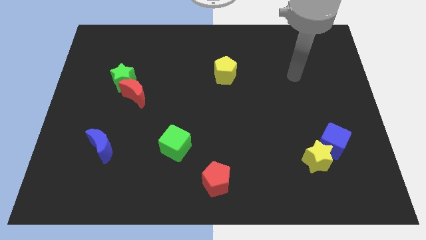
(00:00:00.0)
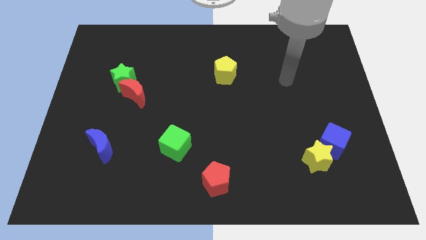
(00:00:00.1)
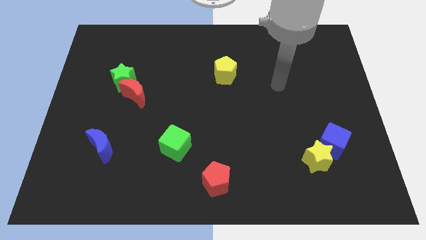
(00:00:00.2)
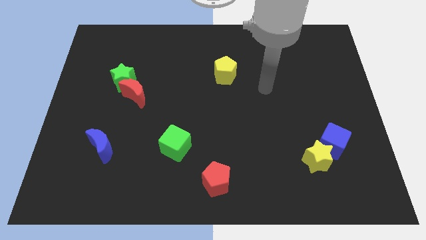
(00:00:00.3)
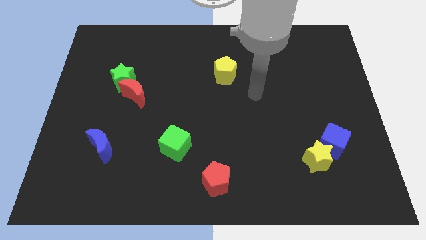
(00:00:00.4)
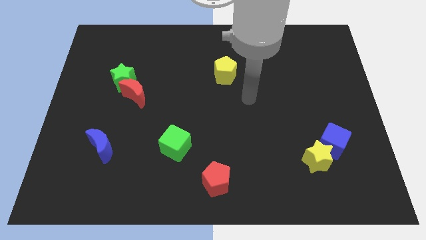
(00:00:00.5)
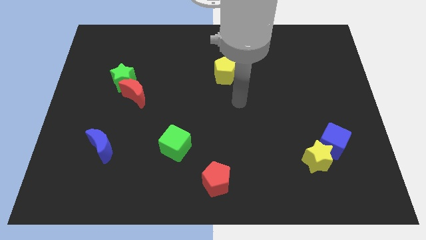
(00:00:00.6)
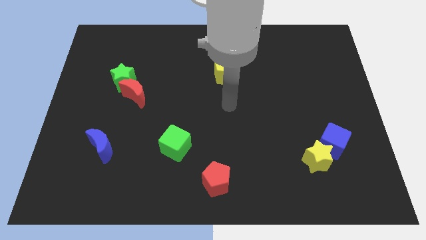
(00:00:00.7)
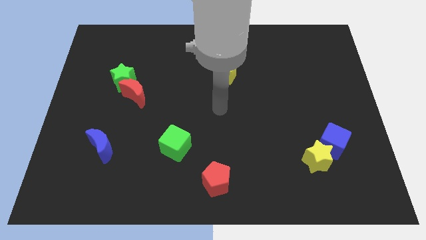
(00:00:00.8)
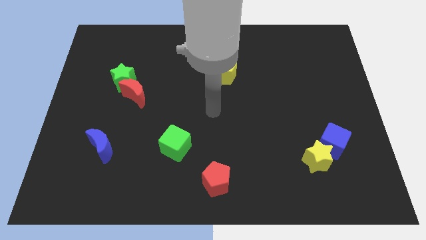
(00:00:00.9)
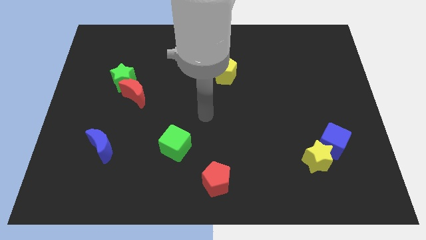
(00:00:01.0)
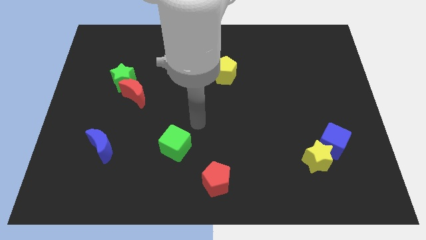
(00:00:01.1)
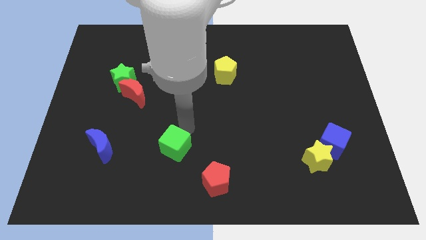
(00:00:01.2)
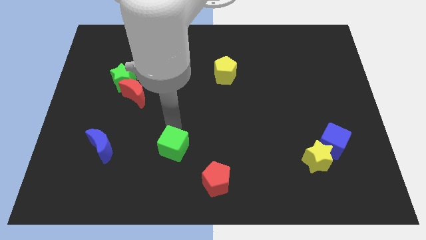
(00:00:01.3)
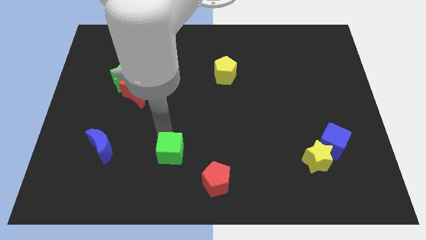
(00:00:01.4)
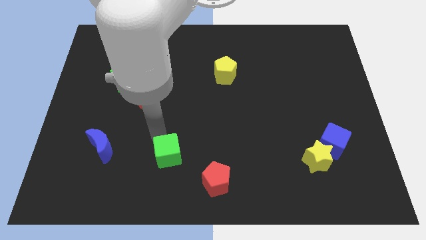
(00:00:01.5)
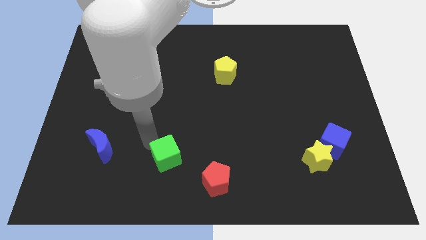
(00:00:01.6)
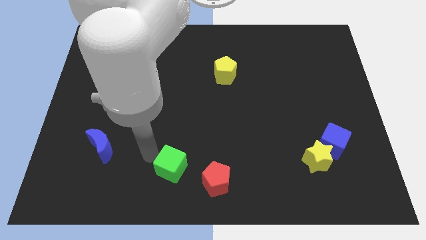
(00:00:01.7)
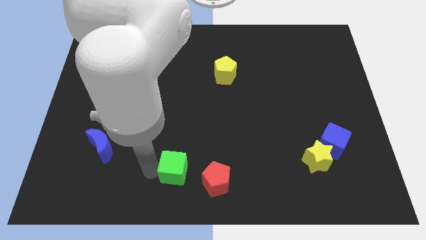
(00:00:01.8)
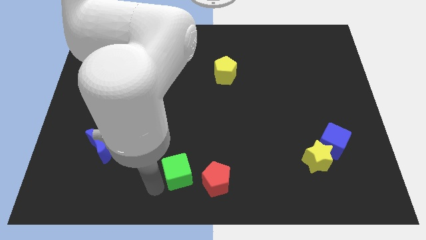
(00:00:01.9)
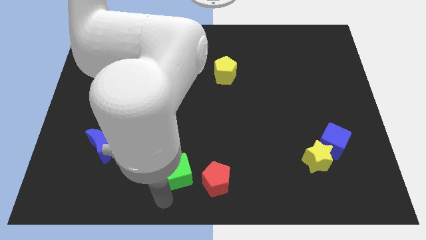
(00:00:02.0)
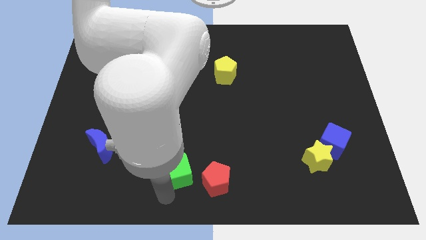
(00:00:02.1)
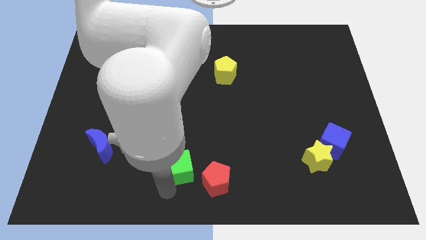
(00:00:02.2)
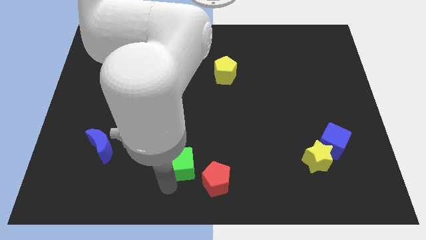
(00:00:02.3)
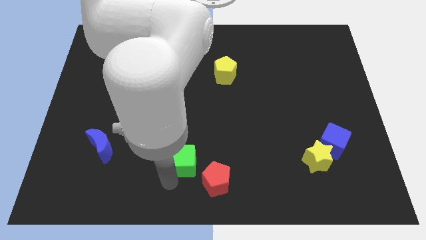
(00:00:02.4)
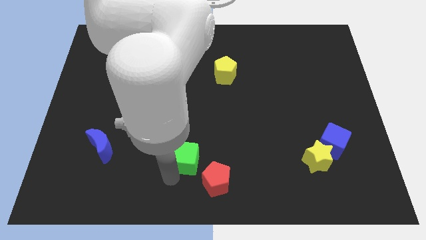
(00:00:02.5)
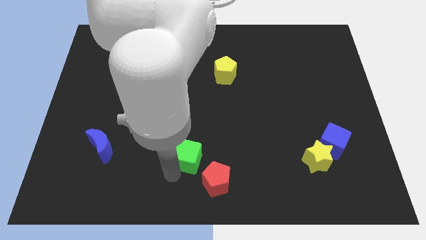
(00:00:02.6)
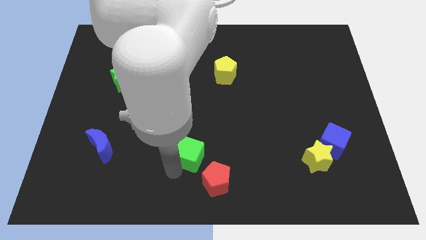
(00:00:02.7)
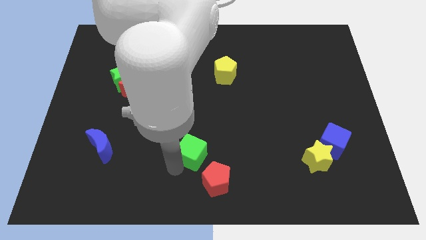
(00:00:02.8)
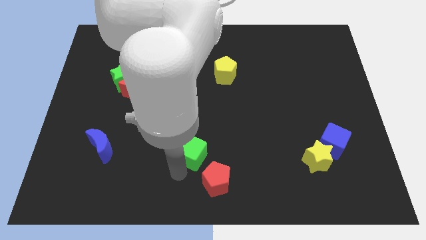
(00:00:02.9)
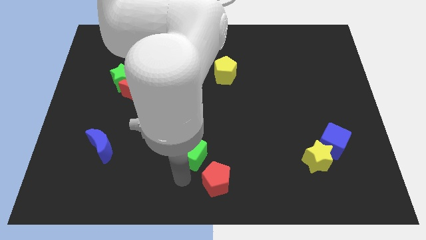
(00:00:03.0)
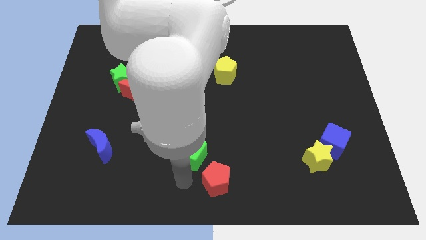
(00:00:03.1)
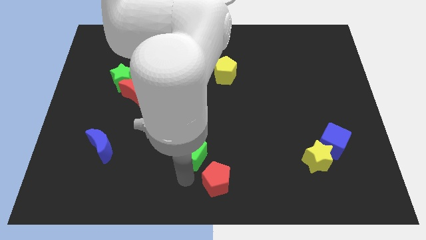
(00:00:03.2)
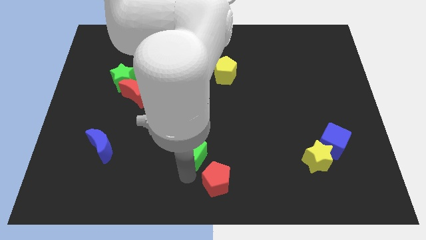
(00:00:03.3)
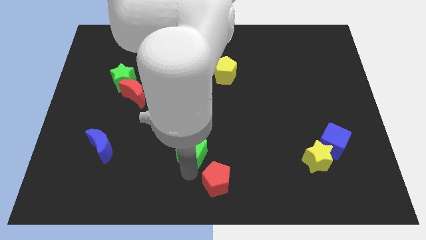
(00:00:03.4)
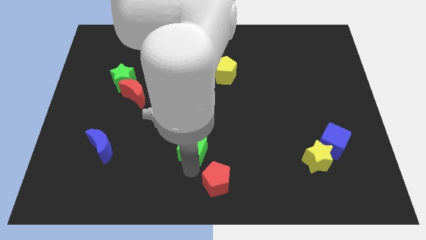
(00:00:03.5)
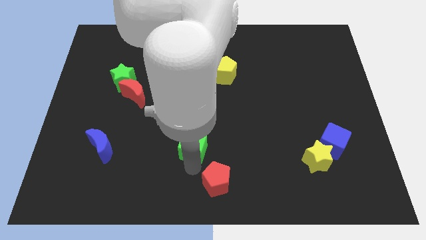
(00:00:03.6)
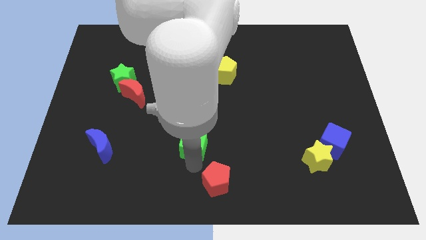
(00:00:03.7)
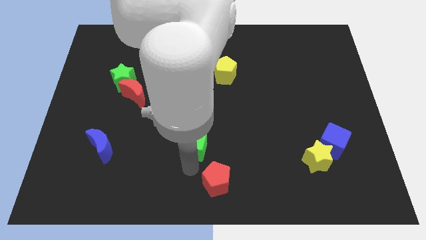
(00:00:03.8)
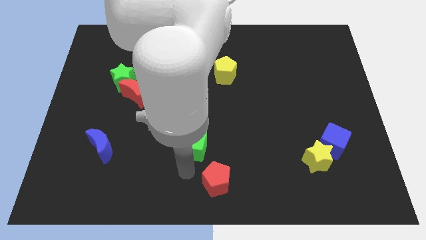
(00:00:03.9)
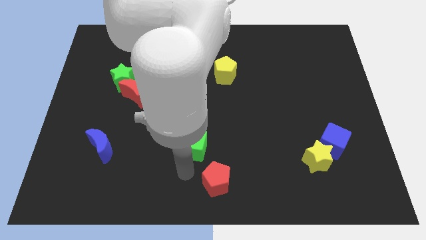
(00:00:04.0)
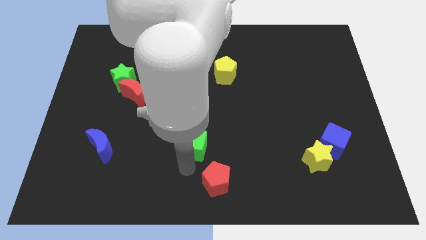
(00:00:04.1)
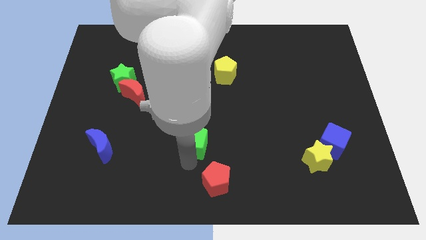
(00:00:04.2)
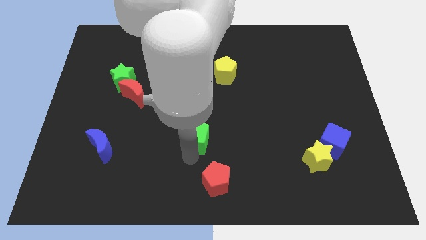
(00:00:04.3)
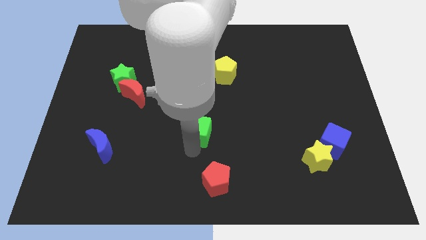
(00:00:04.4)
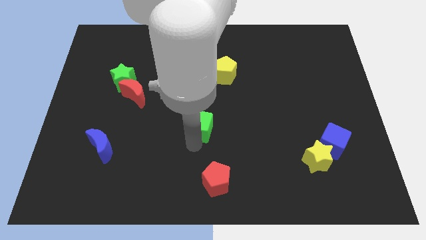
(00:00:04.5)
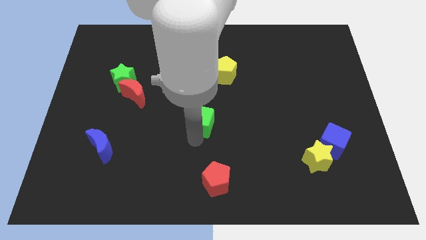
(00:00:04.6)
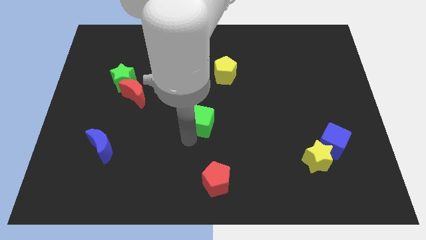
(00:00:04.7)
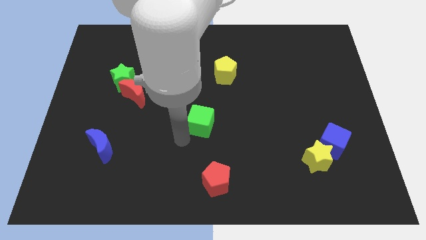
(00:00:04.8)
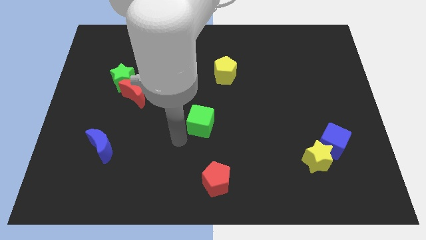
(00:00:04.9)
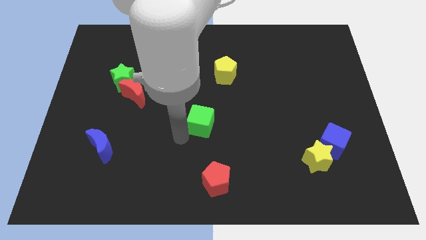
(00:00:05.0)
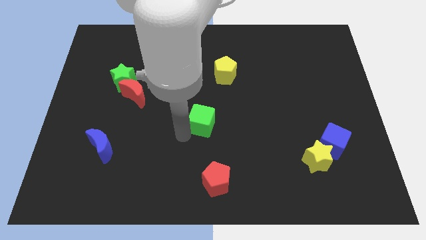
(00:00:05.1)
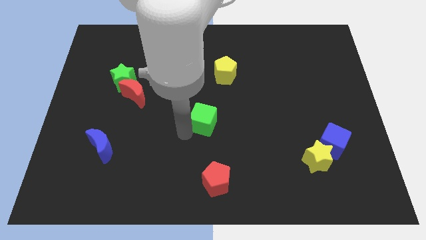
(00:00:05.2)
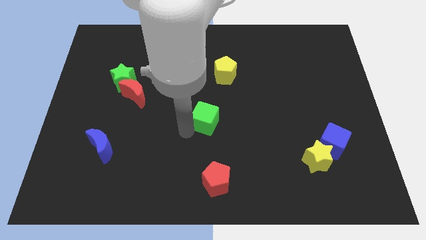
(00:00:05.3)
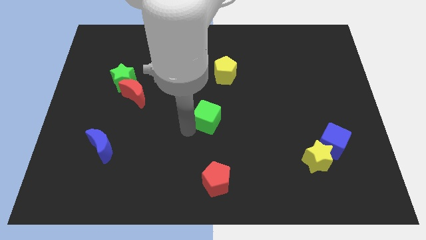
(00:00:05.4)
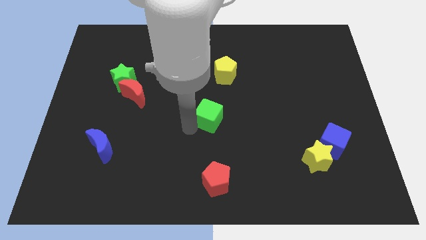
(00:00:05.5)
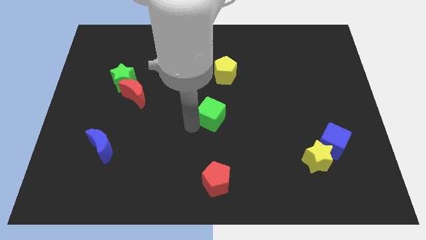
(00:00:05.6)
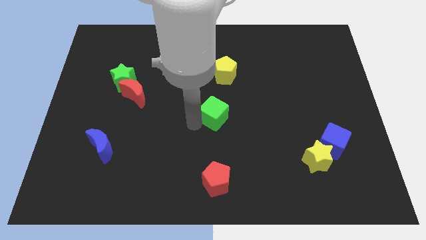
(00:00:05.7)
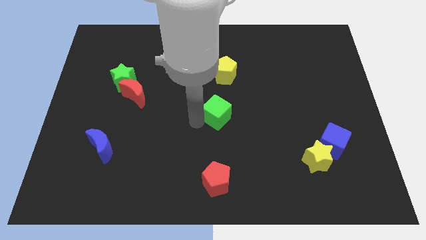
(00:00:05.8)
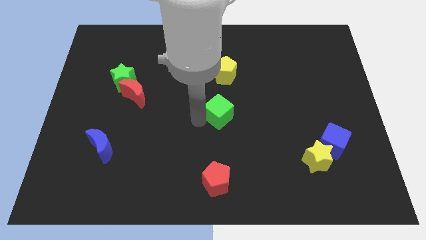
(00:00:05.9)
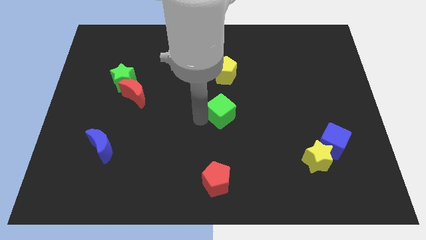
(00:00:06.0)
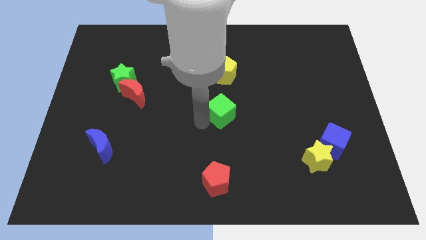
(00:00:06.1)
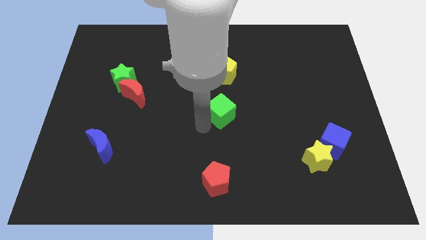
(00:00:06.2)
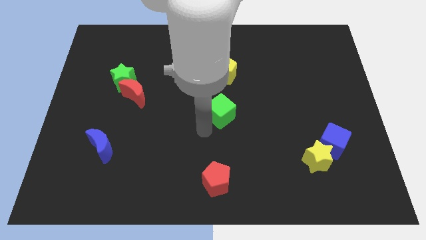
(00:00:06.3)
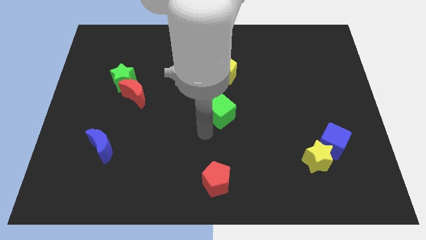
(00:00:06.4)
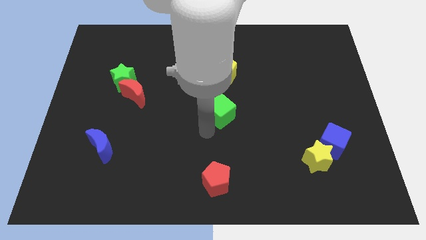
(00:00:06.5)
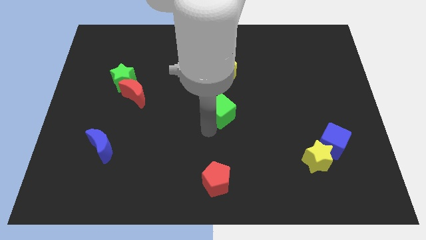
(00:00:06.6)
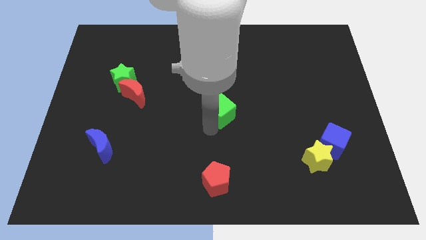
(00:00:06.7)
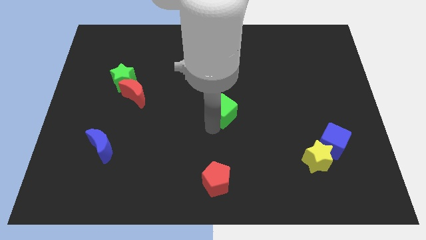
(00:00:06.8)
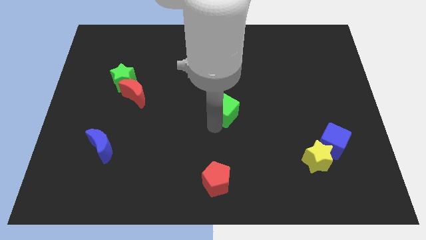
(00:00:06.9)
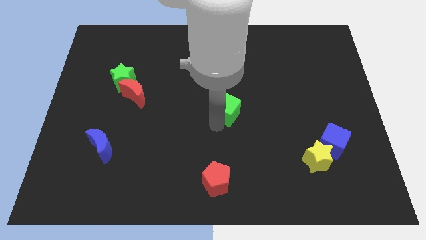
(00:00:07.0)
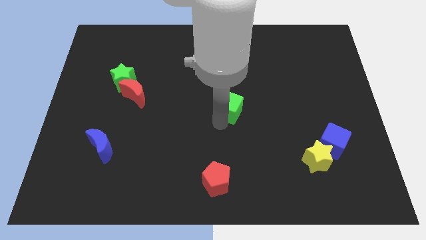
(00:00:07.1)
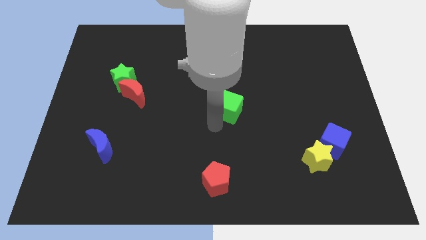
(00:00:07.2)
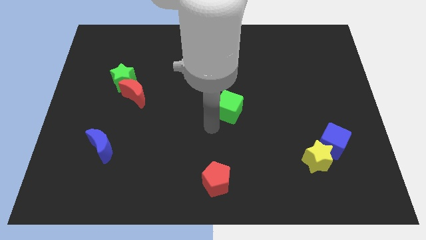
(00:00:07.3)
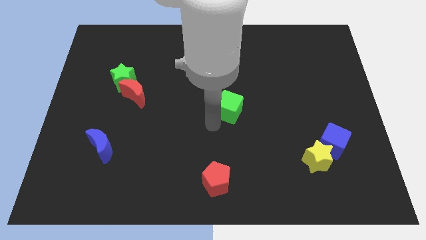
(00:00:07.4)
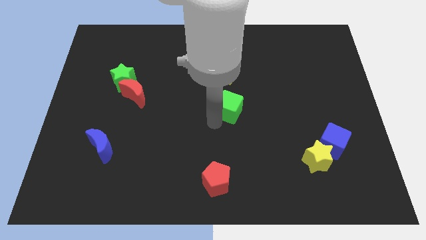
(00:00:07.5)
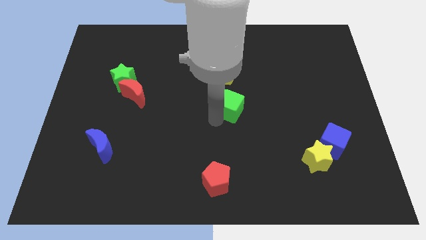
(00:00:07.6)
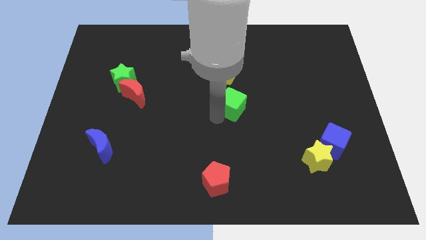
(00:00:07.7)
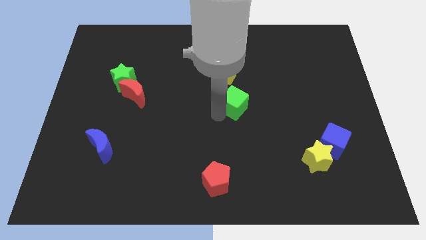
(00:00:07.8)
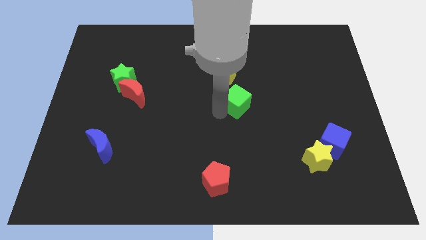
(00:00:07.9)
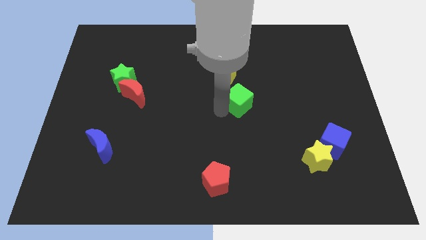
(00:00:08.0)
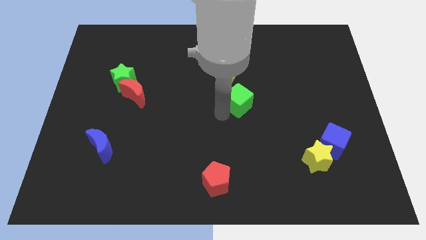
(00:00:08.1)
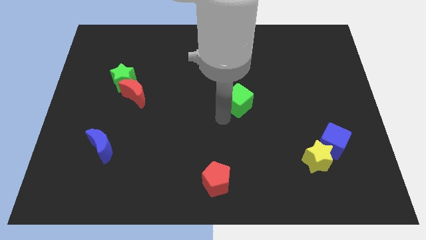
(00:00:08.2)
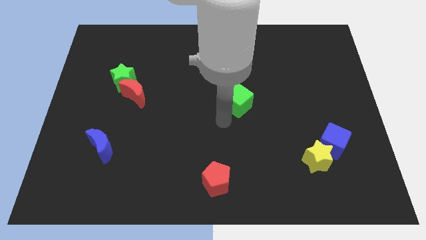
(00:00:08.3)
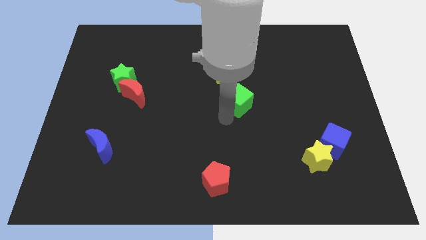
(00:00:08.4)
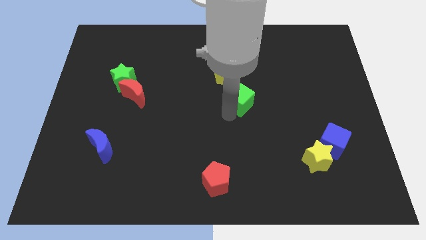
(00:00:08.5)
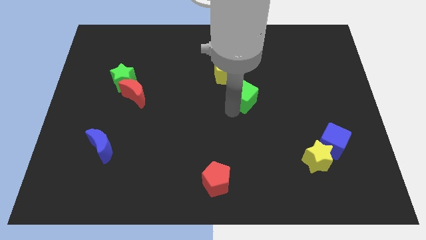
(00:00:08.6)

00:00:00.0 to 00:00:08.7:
push the green cube up and to the right diagonally
